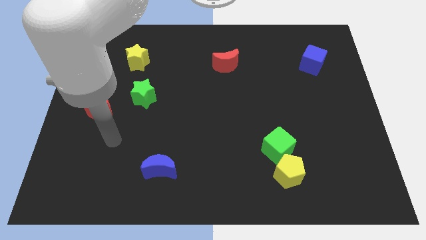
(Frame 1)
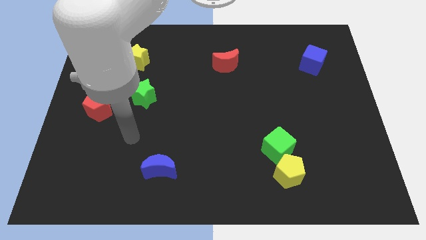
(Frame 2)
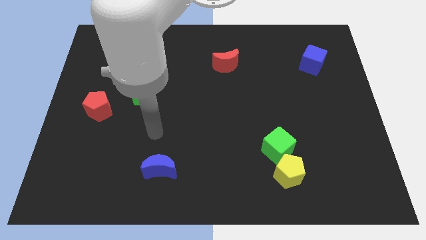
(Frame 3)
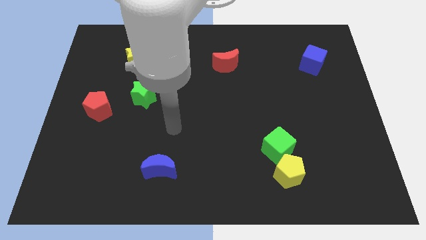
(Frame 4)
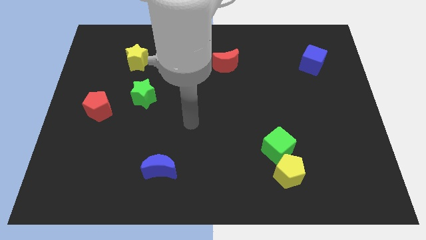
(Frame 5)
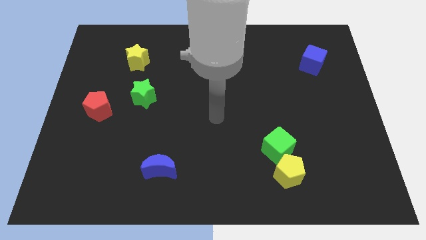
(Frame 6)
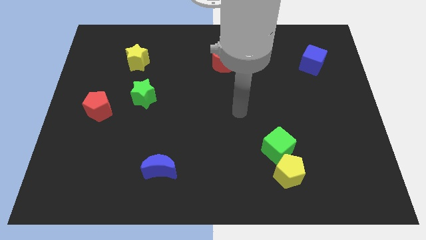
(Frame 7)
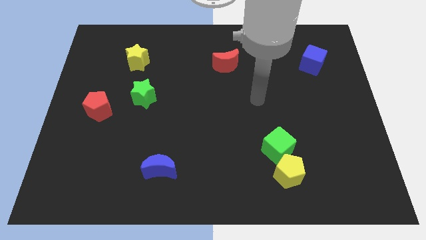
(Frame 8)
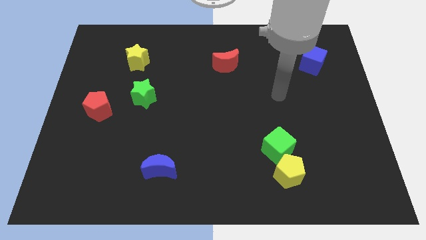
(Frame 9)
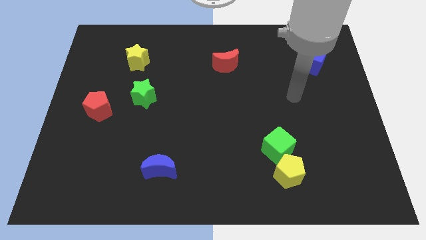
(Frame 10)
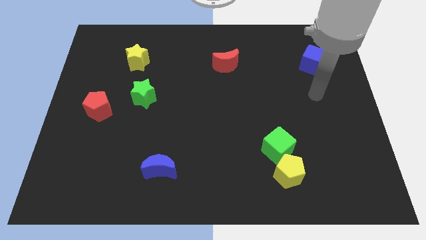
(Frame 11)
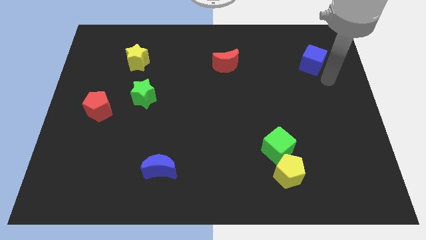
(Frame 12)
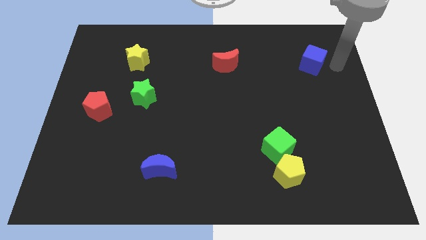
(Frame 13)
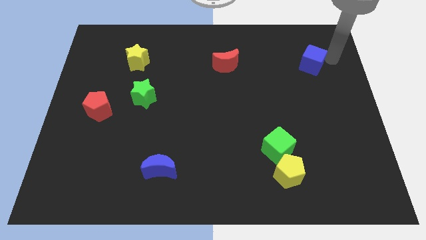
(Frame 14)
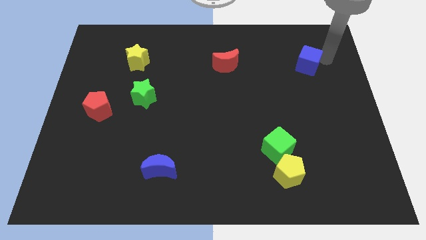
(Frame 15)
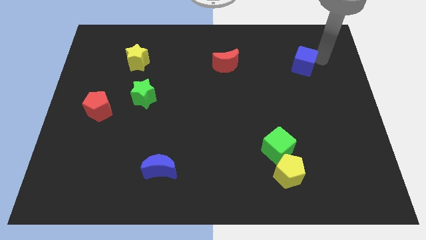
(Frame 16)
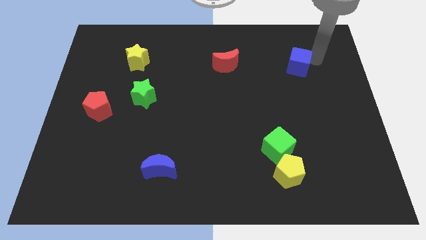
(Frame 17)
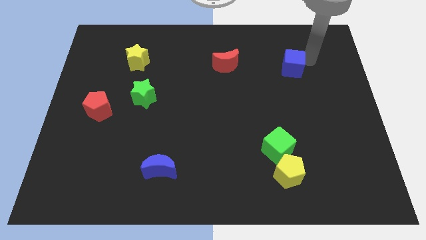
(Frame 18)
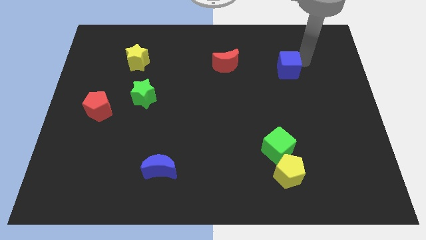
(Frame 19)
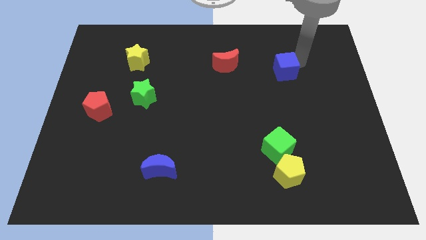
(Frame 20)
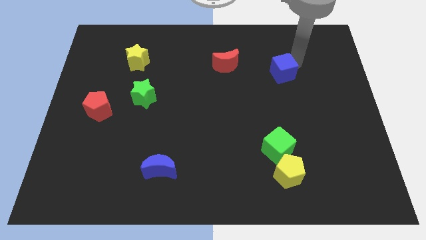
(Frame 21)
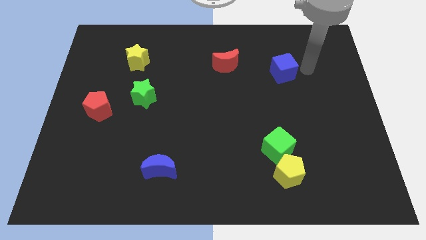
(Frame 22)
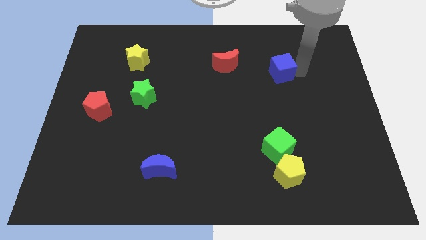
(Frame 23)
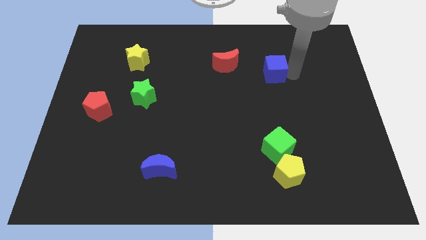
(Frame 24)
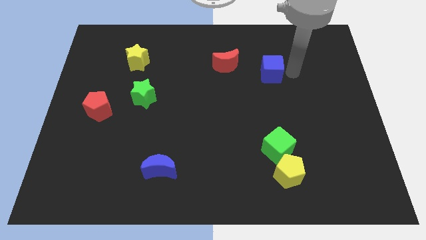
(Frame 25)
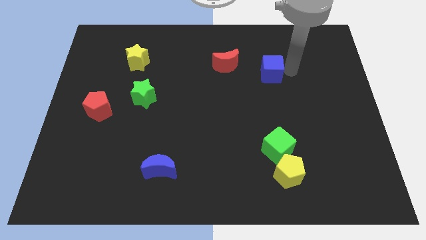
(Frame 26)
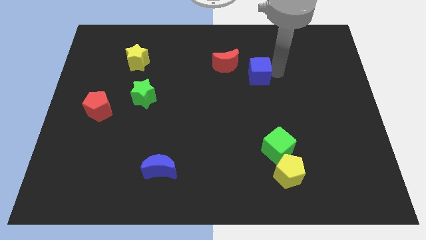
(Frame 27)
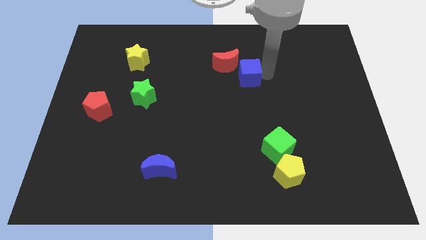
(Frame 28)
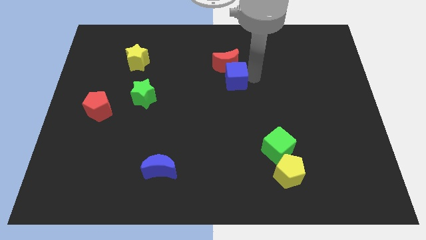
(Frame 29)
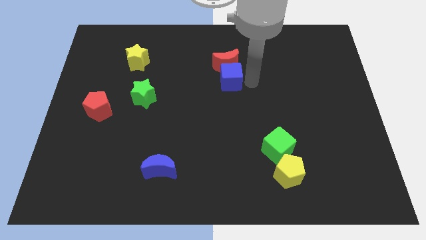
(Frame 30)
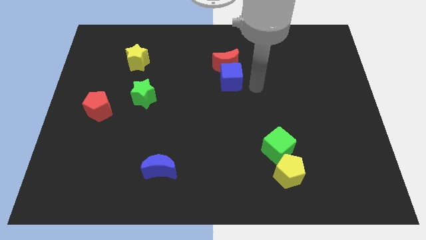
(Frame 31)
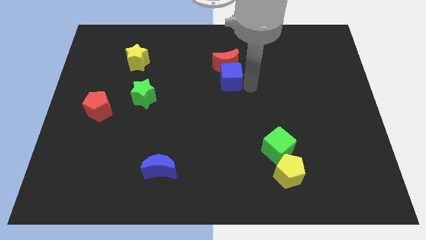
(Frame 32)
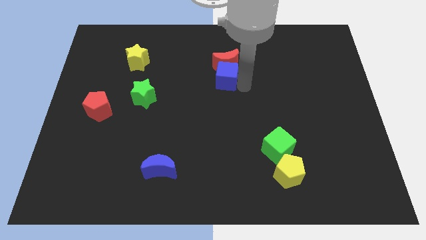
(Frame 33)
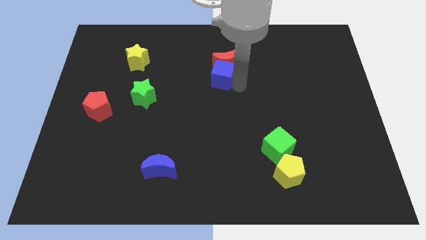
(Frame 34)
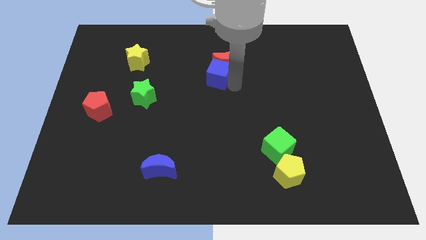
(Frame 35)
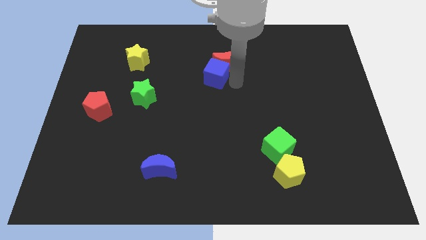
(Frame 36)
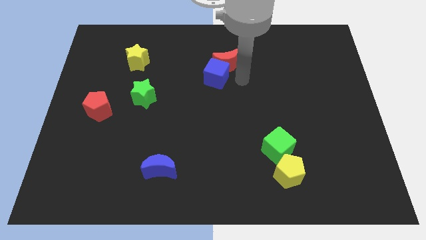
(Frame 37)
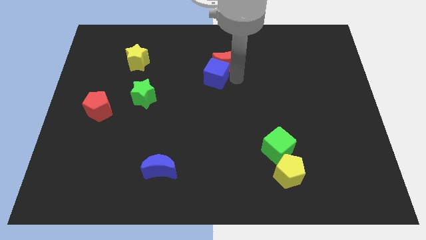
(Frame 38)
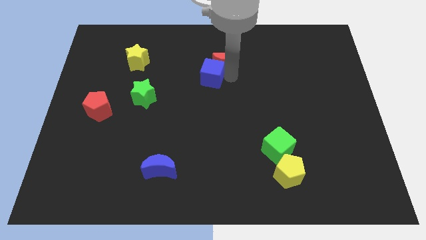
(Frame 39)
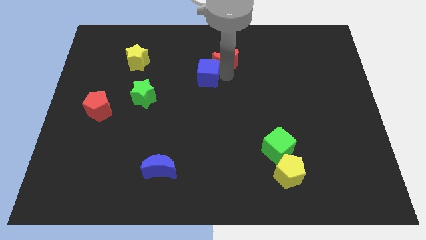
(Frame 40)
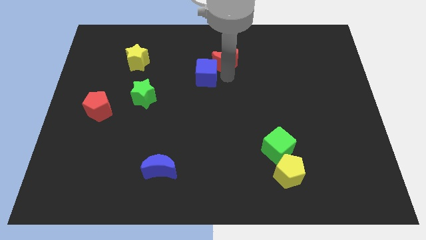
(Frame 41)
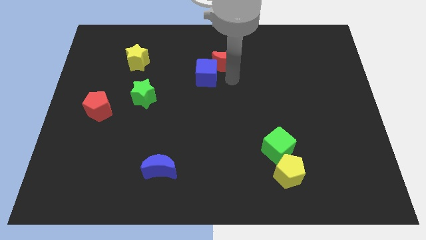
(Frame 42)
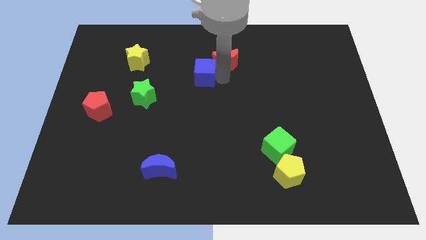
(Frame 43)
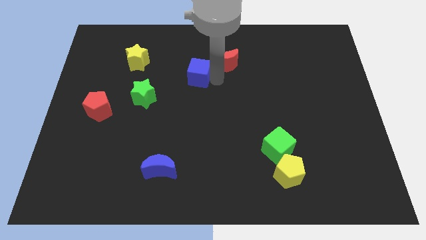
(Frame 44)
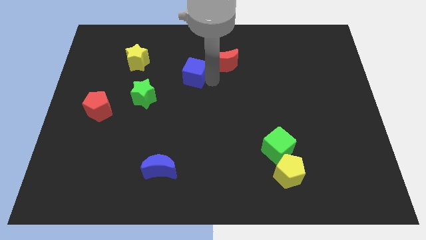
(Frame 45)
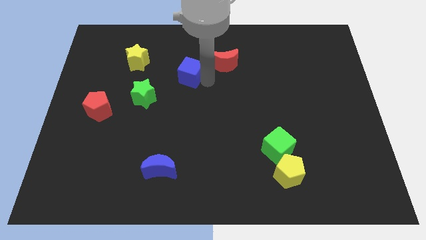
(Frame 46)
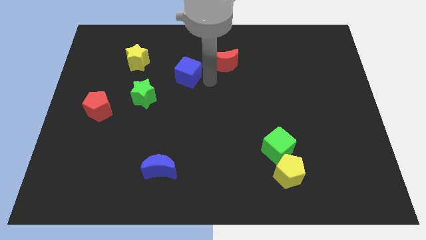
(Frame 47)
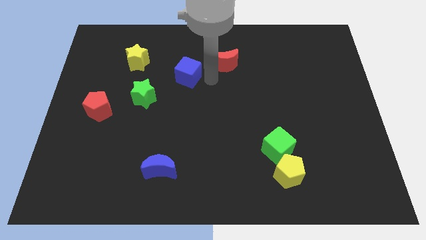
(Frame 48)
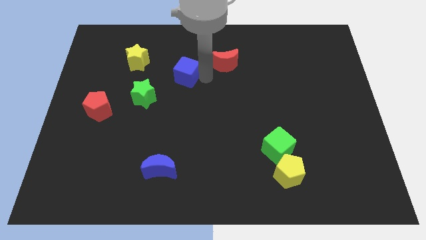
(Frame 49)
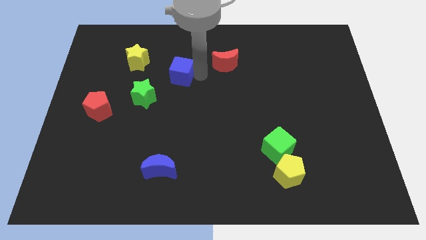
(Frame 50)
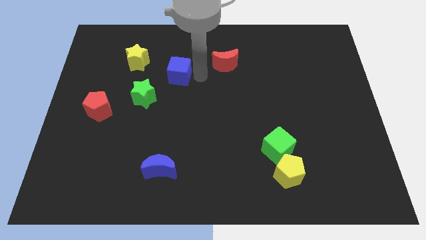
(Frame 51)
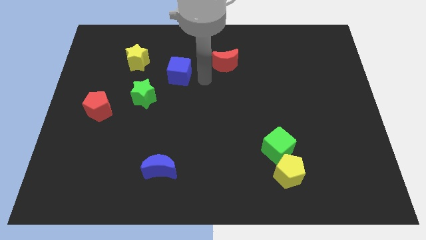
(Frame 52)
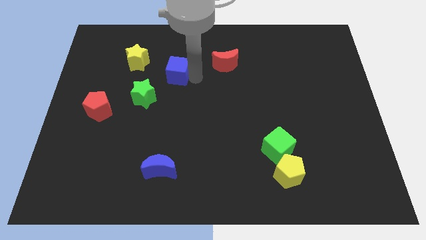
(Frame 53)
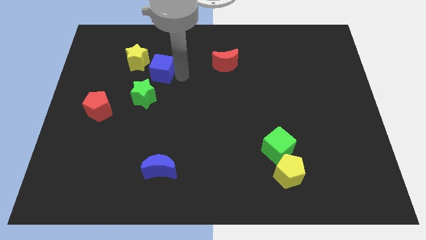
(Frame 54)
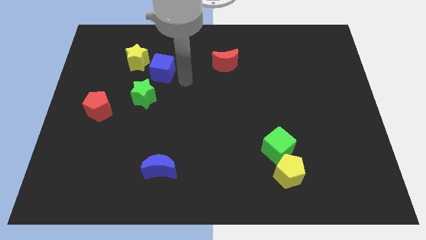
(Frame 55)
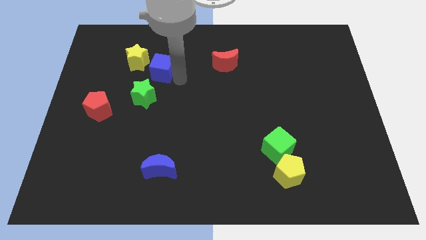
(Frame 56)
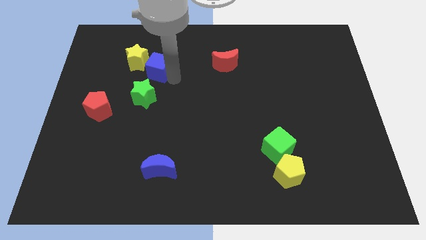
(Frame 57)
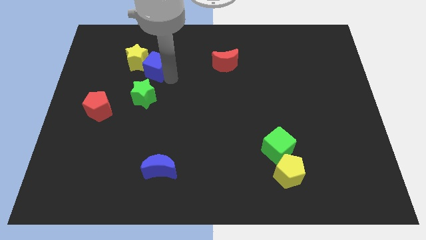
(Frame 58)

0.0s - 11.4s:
put the blue cube to the yellow star
